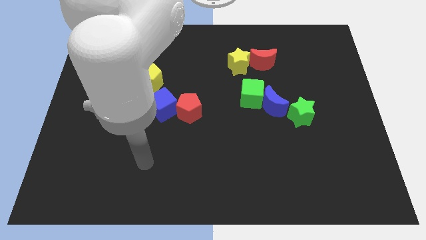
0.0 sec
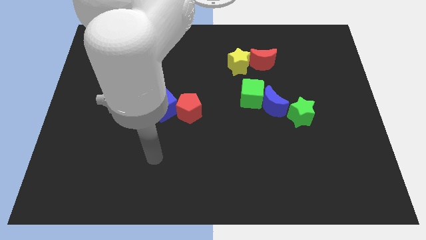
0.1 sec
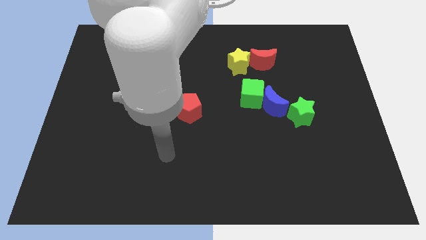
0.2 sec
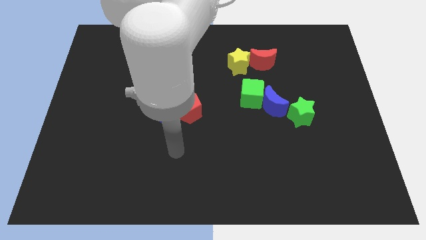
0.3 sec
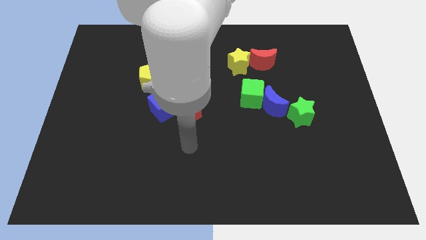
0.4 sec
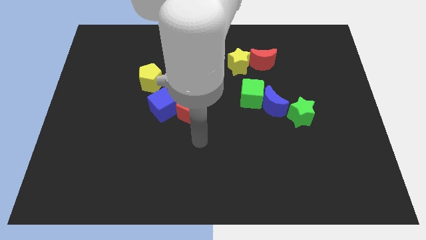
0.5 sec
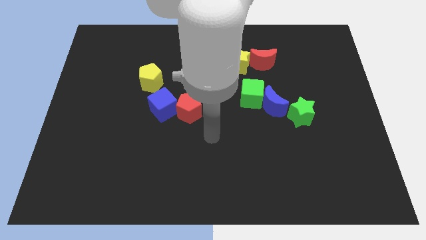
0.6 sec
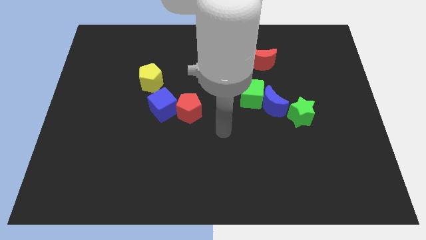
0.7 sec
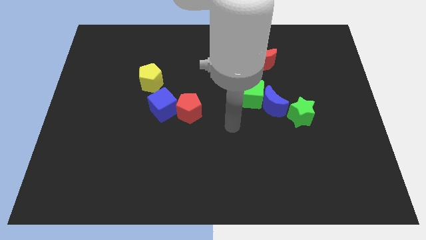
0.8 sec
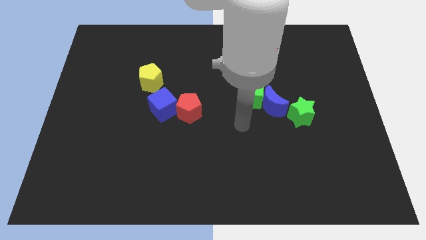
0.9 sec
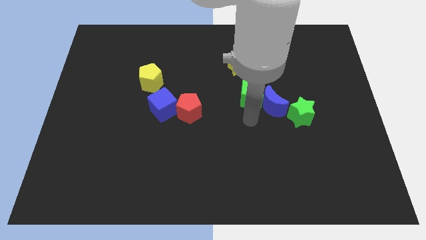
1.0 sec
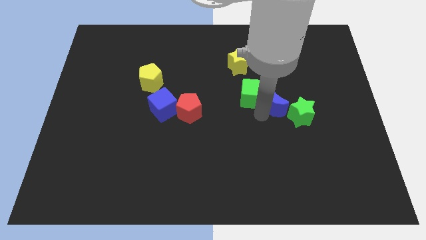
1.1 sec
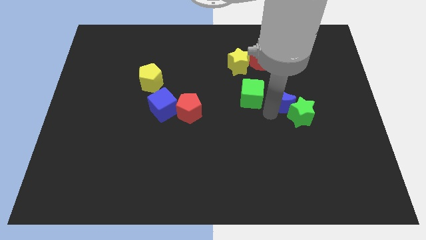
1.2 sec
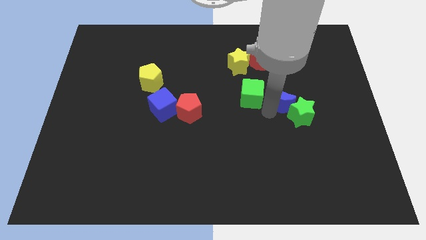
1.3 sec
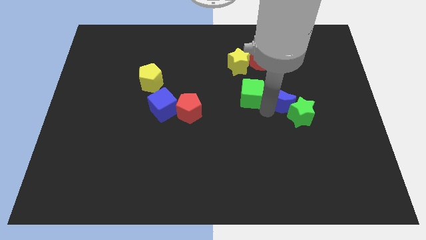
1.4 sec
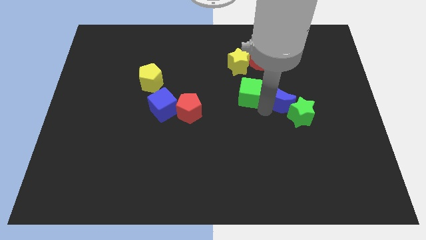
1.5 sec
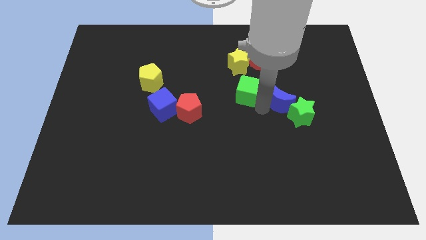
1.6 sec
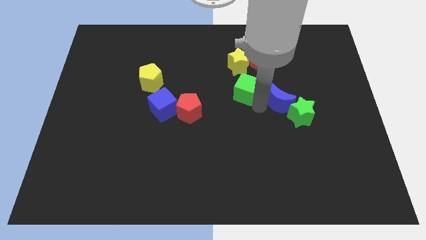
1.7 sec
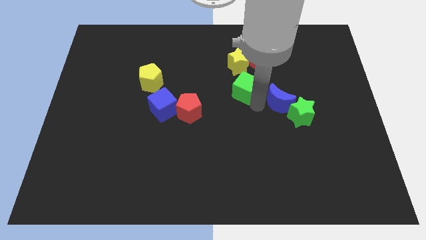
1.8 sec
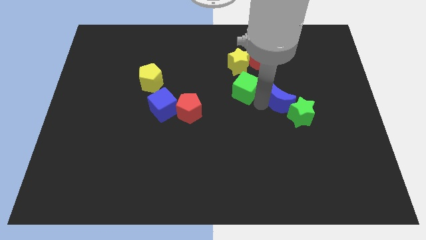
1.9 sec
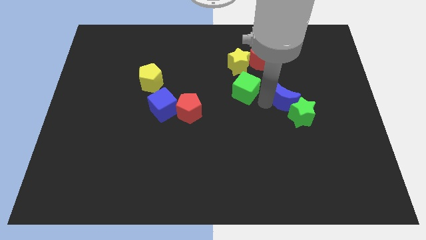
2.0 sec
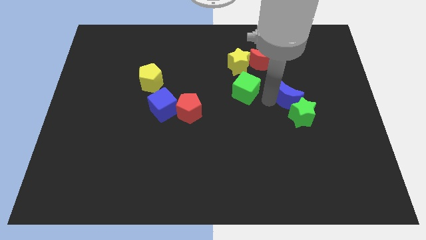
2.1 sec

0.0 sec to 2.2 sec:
separate the green cube from the blue moon

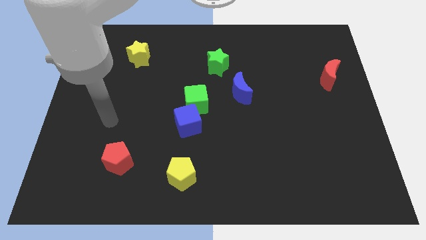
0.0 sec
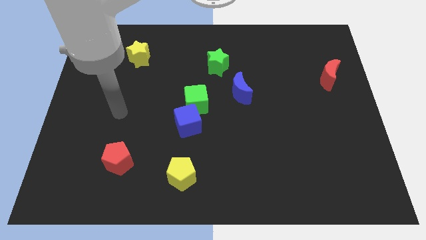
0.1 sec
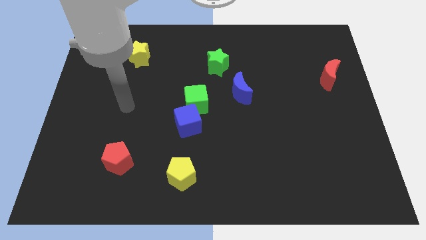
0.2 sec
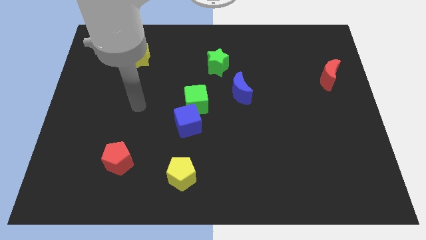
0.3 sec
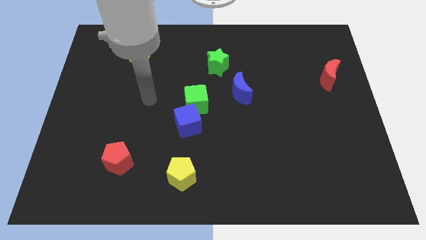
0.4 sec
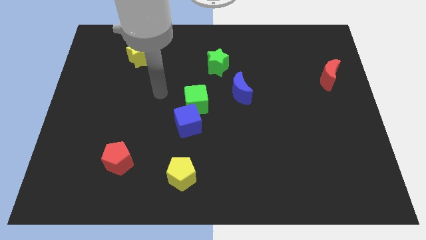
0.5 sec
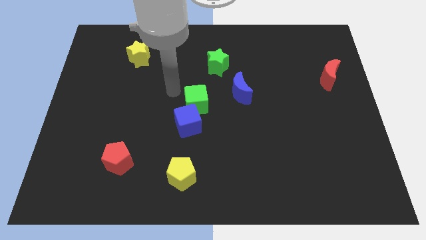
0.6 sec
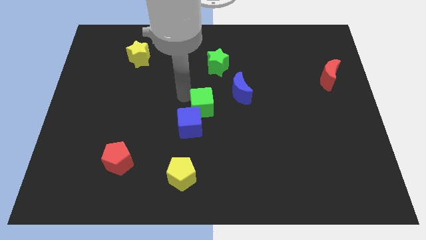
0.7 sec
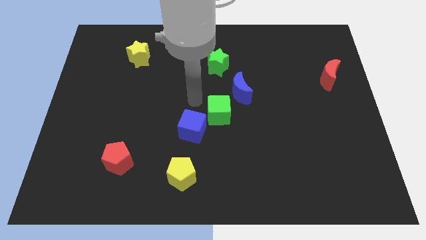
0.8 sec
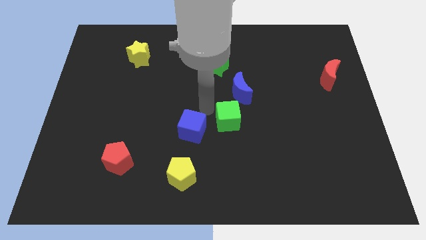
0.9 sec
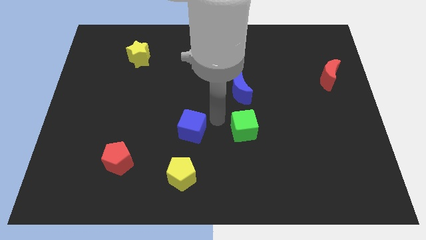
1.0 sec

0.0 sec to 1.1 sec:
pull the blue cube apart from the green cube

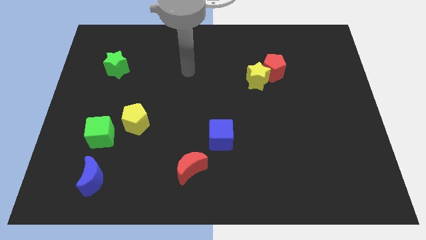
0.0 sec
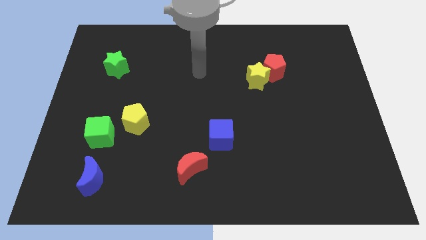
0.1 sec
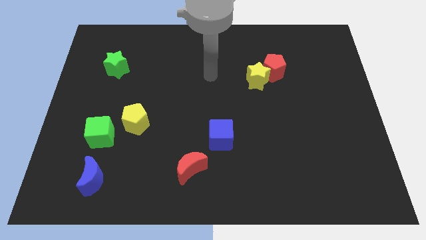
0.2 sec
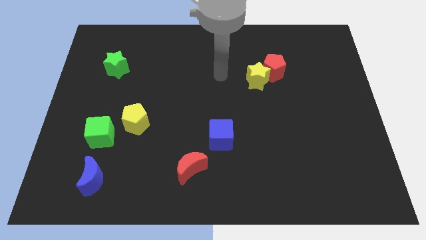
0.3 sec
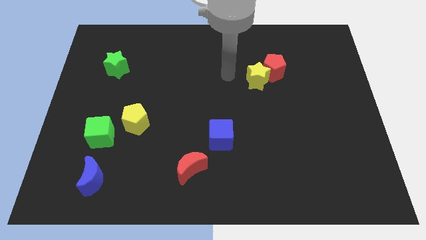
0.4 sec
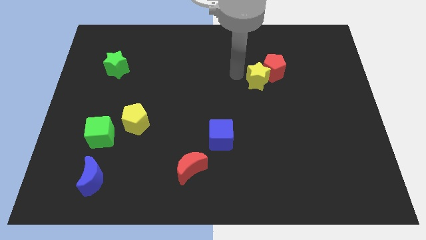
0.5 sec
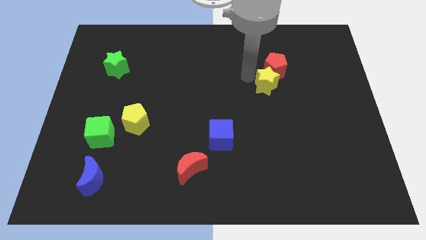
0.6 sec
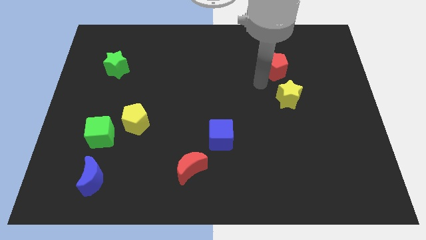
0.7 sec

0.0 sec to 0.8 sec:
move the red pentagon away from the yellow star

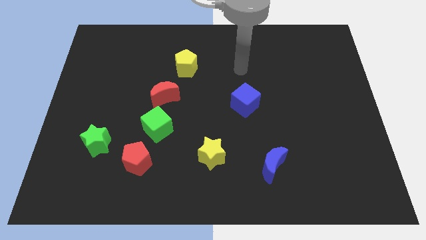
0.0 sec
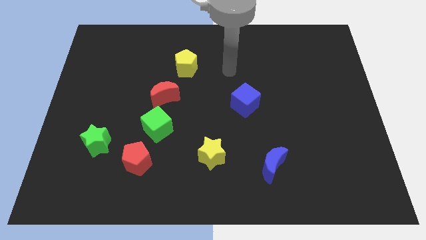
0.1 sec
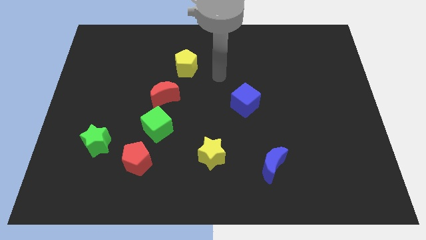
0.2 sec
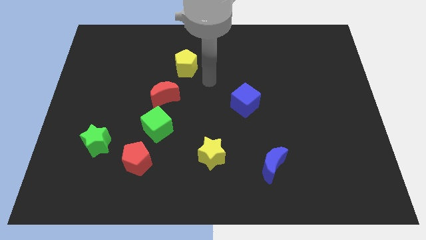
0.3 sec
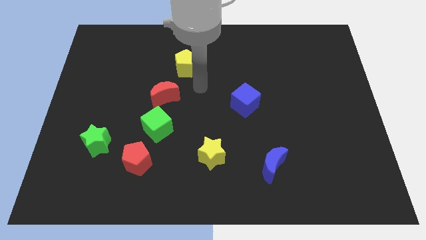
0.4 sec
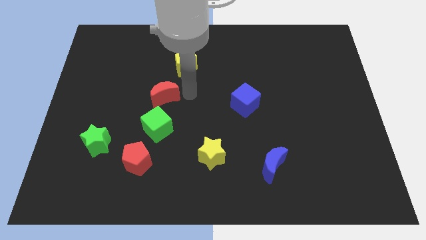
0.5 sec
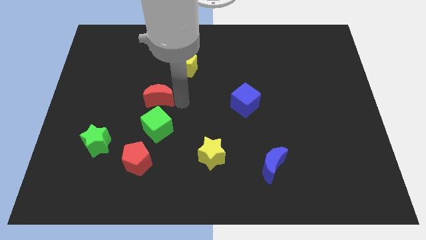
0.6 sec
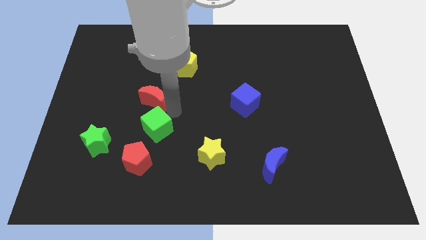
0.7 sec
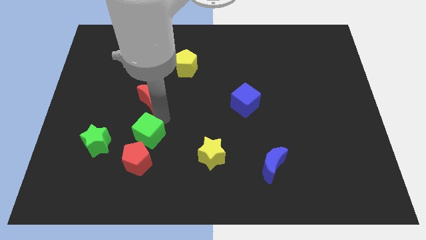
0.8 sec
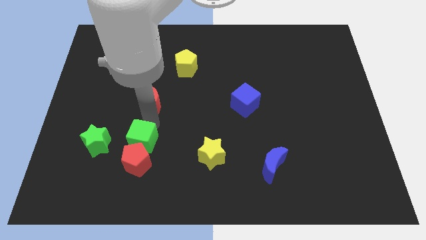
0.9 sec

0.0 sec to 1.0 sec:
separate the red moon from the green cube

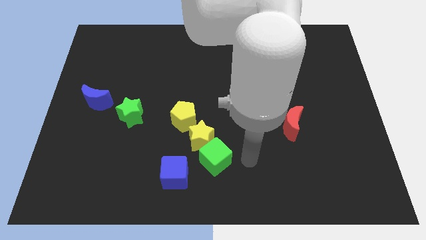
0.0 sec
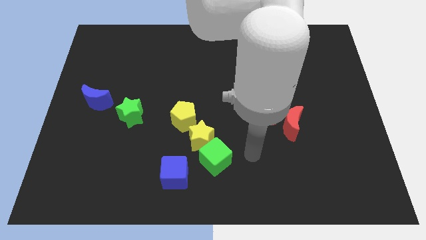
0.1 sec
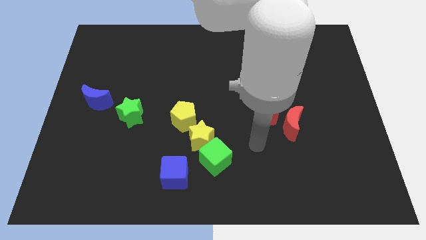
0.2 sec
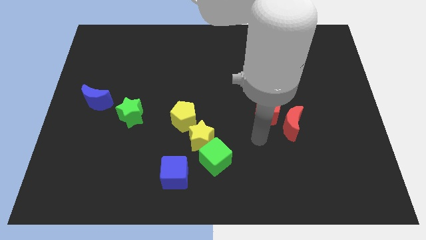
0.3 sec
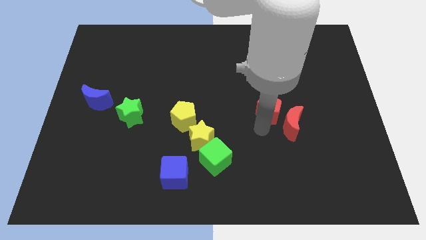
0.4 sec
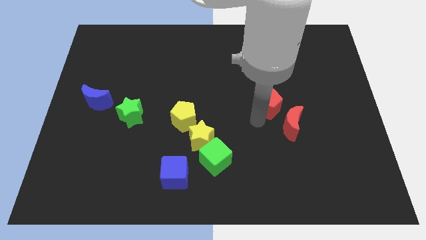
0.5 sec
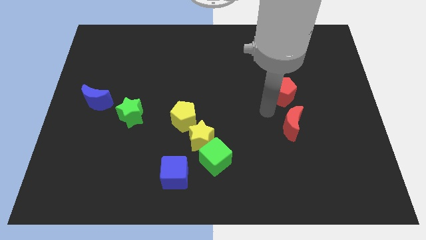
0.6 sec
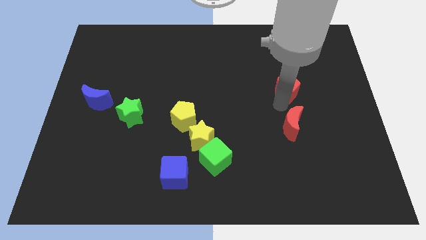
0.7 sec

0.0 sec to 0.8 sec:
separate the red moon from the red pentagon

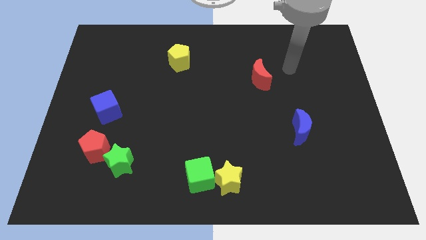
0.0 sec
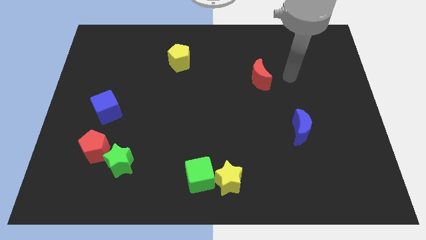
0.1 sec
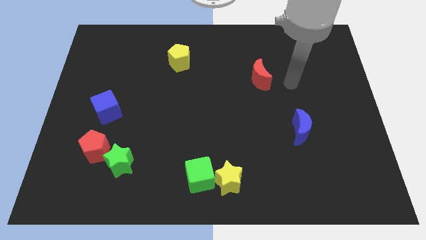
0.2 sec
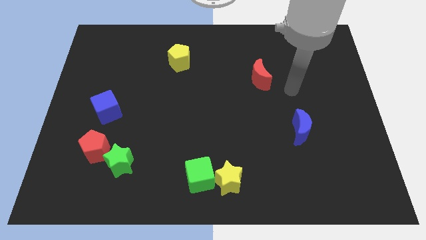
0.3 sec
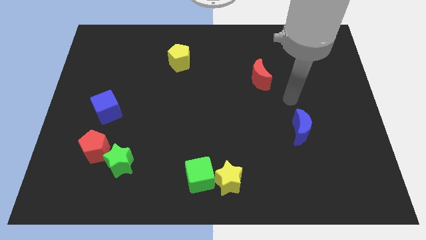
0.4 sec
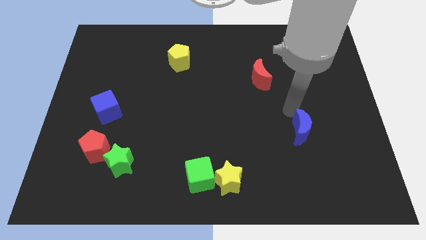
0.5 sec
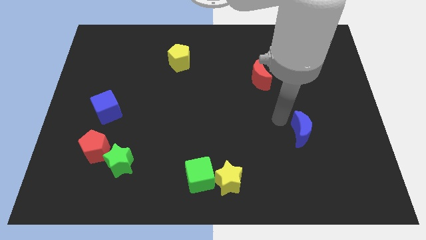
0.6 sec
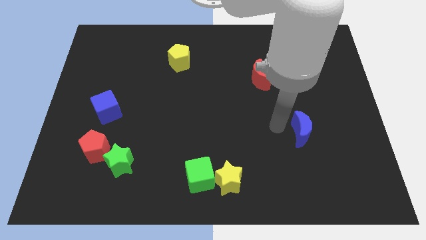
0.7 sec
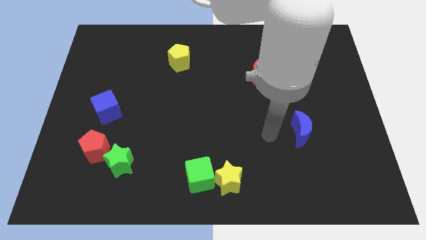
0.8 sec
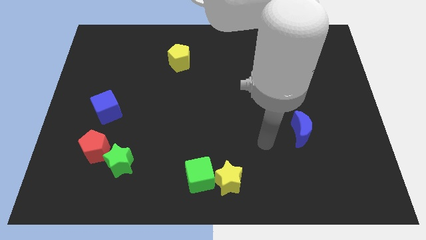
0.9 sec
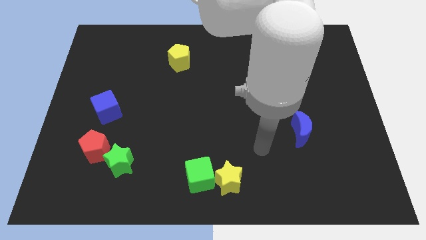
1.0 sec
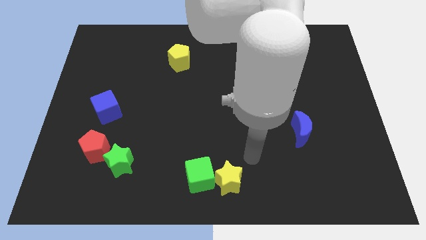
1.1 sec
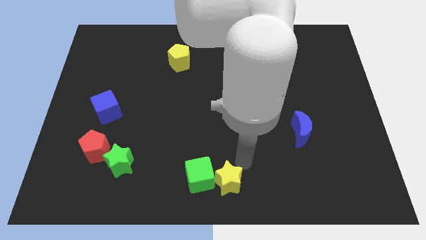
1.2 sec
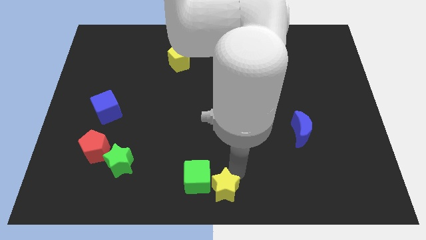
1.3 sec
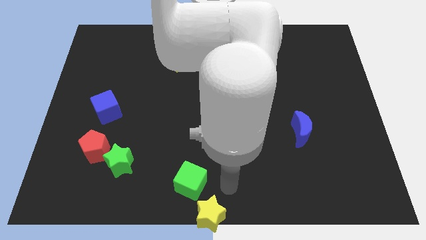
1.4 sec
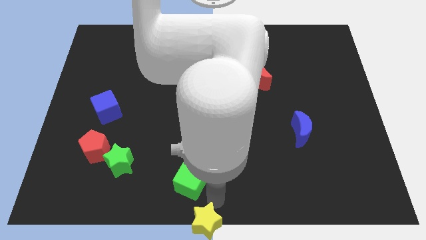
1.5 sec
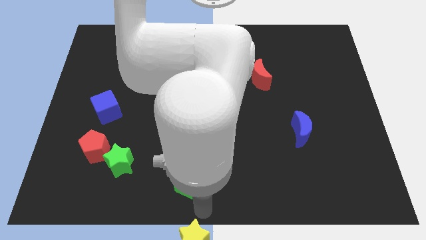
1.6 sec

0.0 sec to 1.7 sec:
separate the green cube from the yellow star

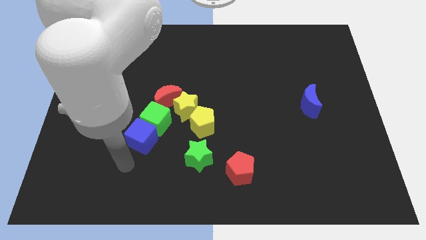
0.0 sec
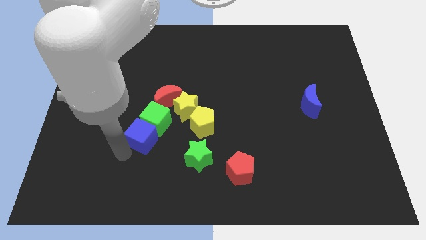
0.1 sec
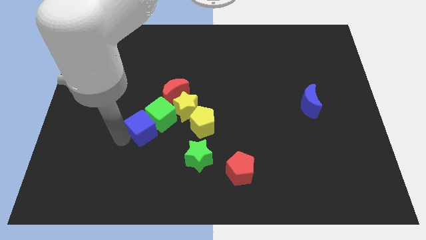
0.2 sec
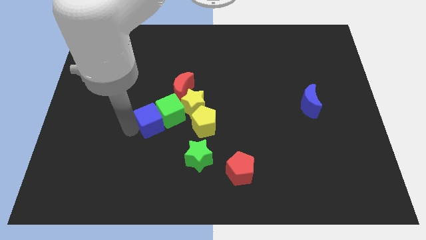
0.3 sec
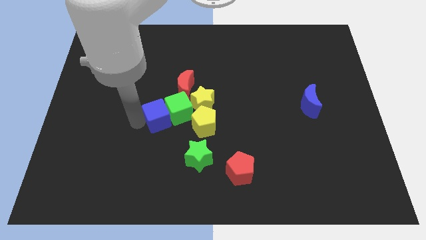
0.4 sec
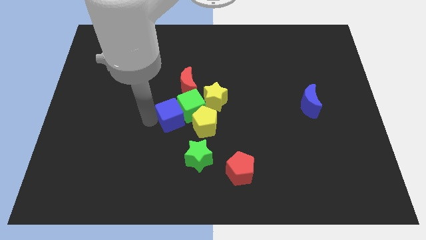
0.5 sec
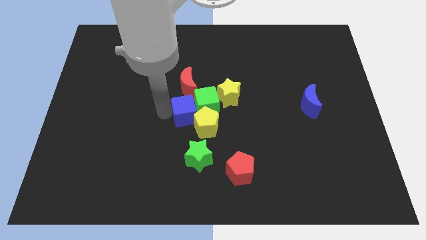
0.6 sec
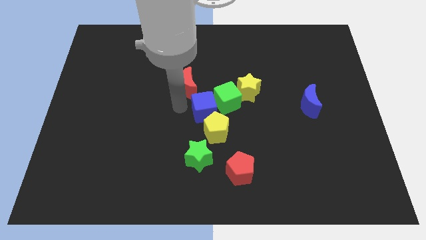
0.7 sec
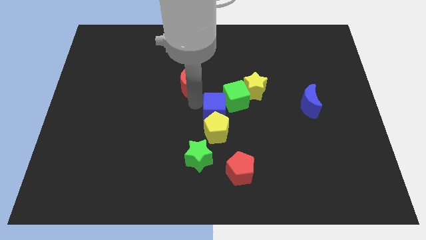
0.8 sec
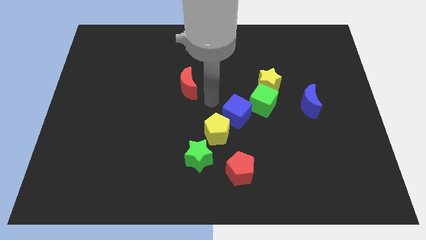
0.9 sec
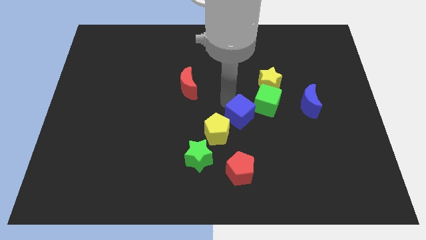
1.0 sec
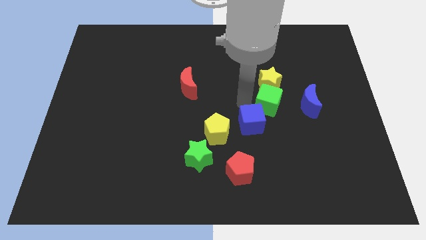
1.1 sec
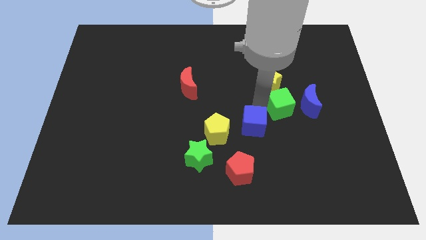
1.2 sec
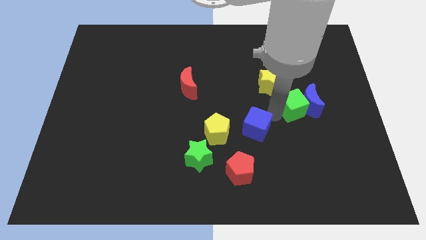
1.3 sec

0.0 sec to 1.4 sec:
move the blue cube away from the green cube

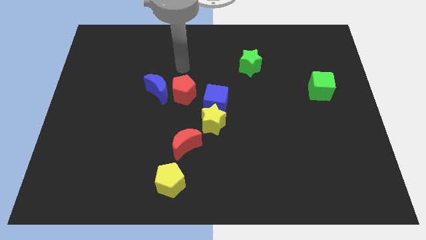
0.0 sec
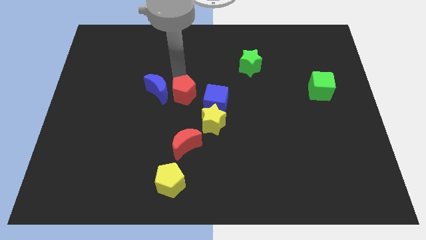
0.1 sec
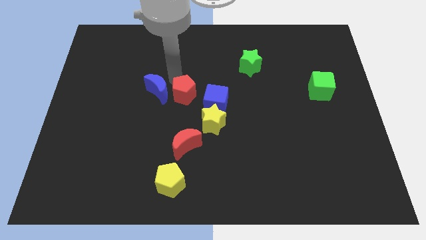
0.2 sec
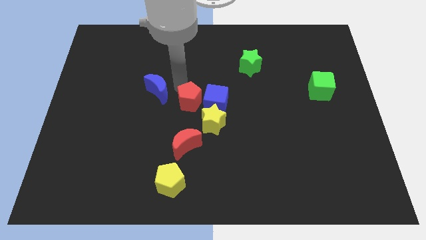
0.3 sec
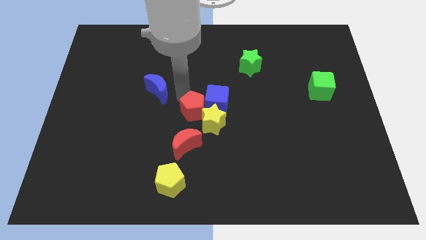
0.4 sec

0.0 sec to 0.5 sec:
move the blue moon away from the red pentagon
